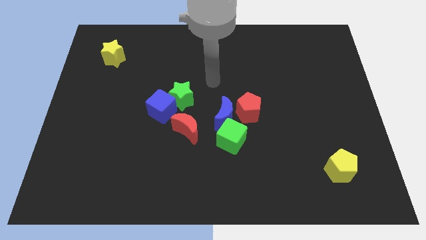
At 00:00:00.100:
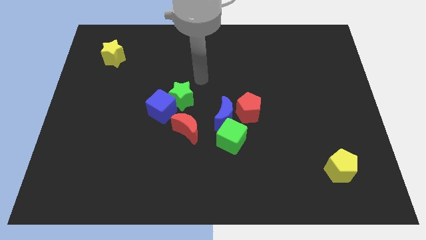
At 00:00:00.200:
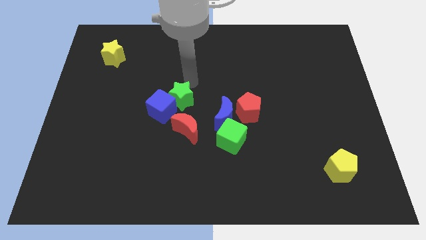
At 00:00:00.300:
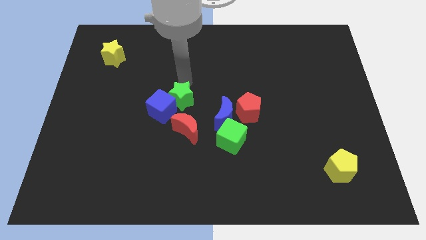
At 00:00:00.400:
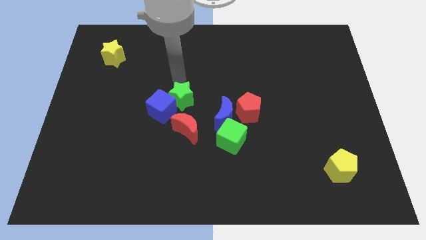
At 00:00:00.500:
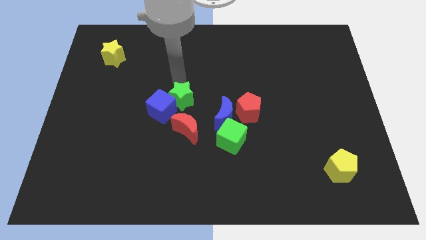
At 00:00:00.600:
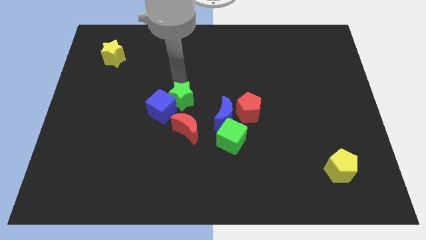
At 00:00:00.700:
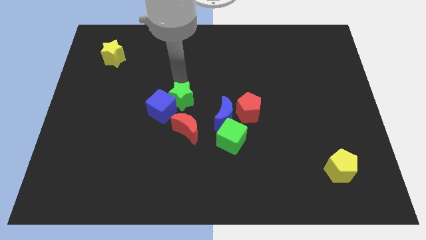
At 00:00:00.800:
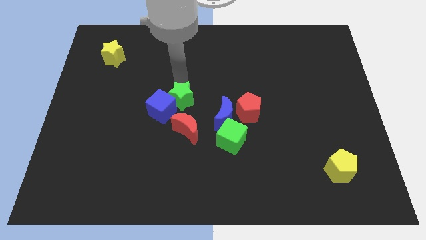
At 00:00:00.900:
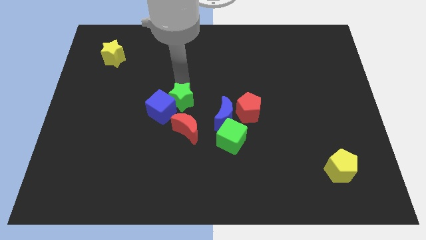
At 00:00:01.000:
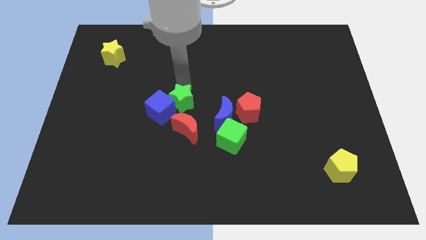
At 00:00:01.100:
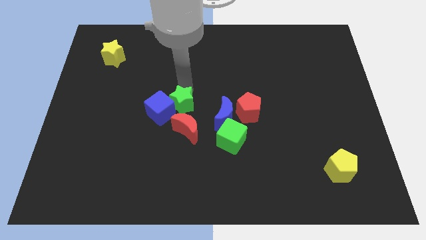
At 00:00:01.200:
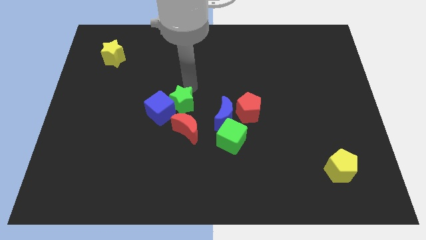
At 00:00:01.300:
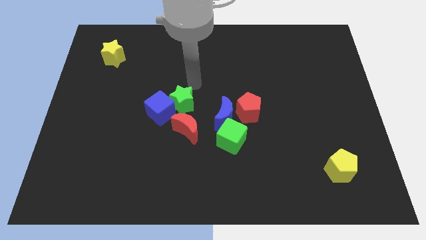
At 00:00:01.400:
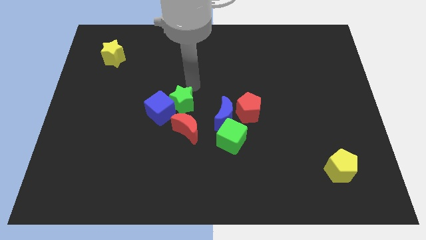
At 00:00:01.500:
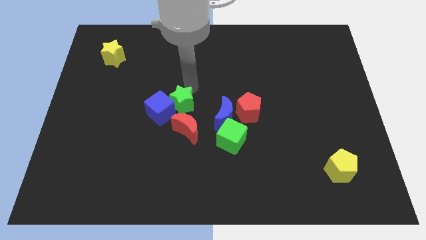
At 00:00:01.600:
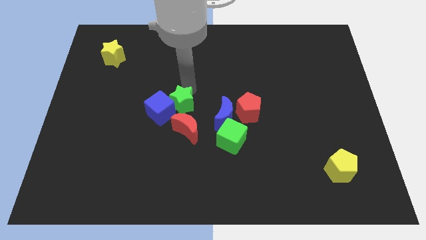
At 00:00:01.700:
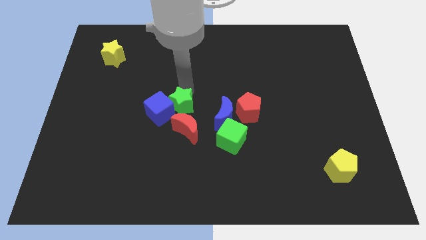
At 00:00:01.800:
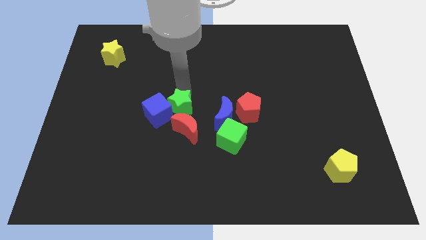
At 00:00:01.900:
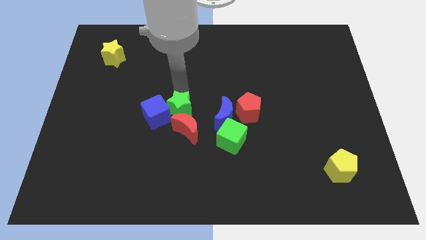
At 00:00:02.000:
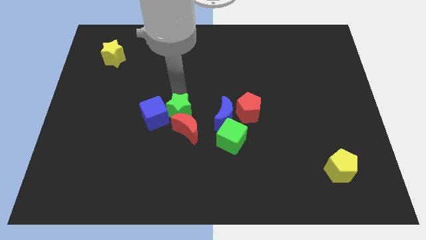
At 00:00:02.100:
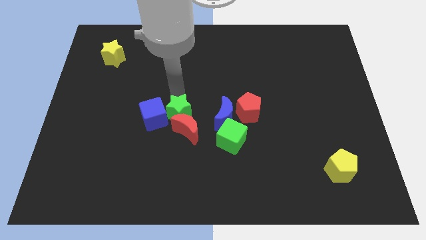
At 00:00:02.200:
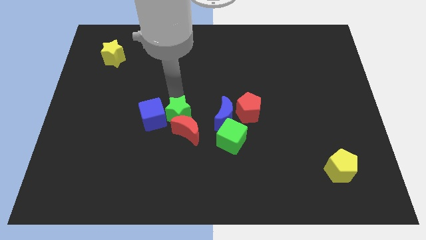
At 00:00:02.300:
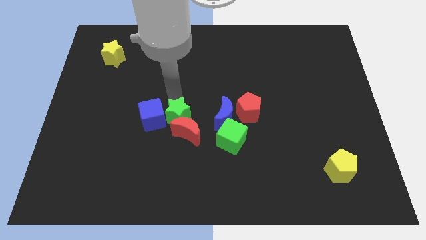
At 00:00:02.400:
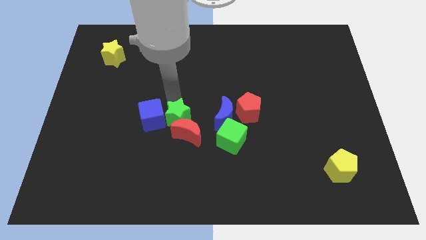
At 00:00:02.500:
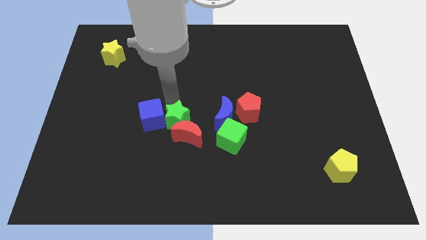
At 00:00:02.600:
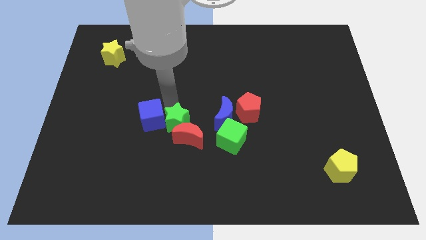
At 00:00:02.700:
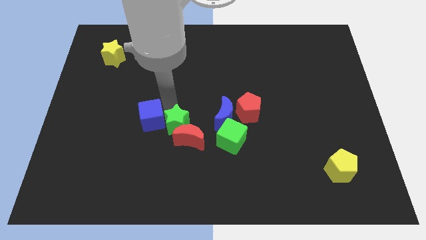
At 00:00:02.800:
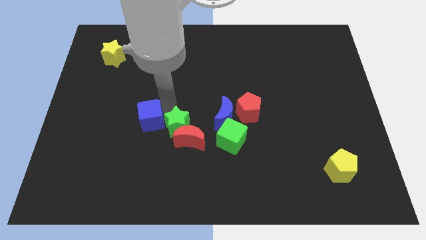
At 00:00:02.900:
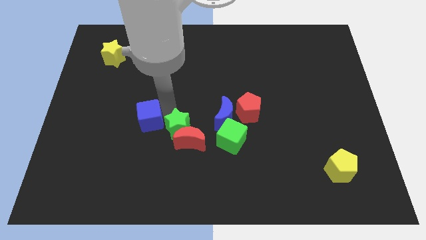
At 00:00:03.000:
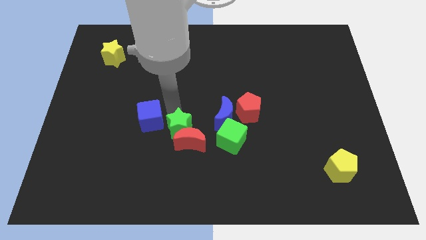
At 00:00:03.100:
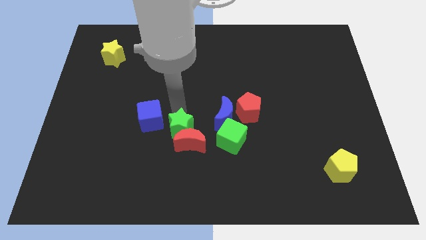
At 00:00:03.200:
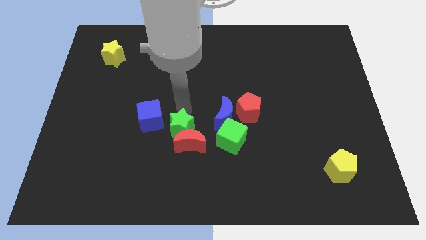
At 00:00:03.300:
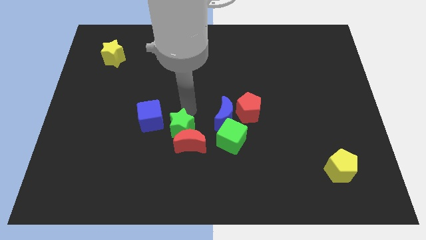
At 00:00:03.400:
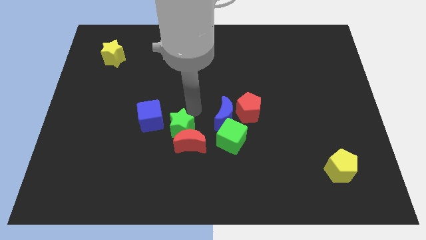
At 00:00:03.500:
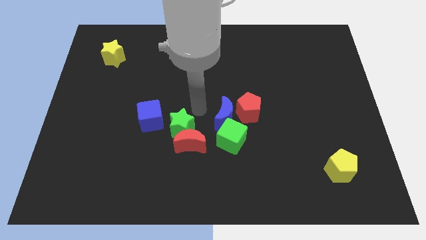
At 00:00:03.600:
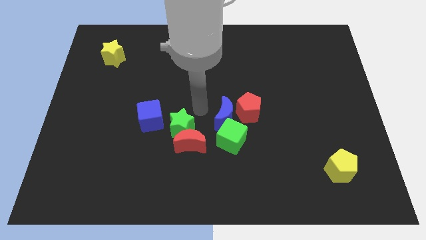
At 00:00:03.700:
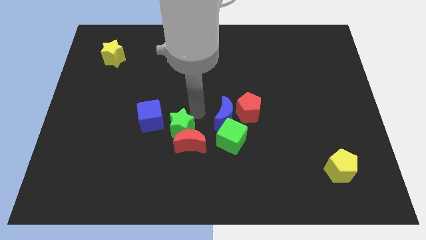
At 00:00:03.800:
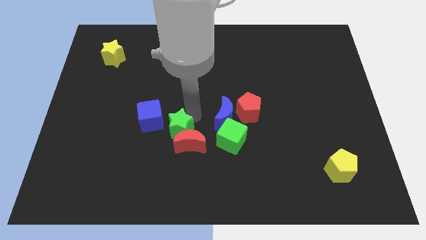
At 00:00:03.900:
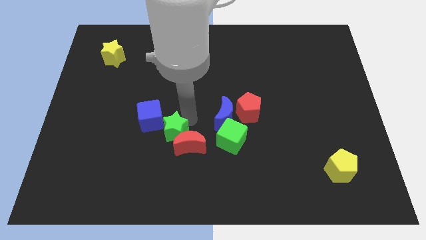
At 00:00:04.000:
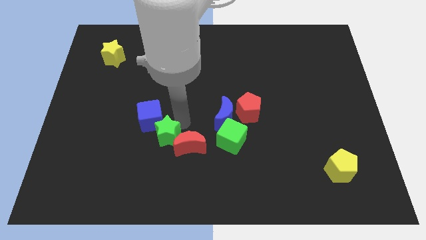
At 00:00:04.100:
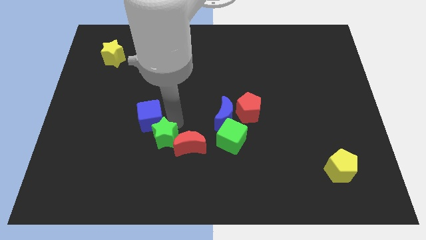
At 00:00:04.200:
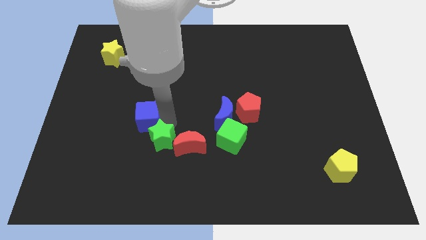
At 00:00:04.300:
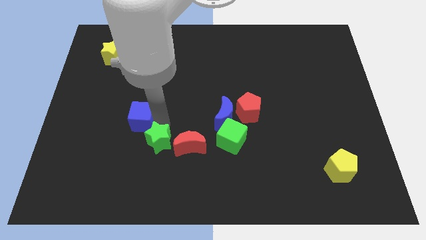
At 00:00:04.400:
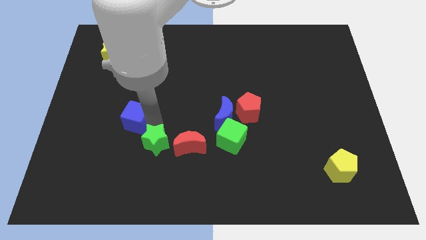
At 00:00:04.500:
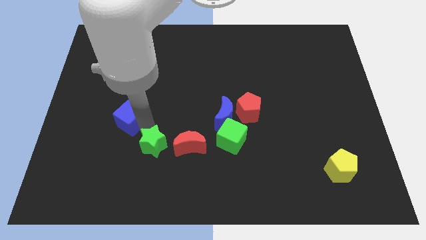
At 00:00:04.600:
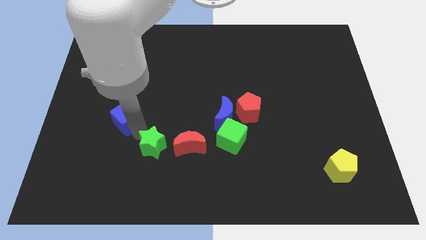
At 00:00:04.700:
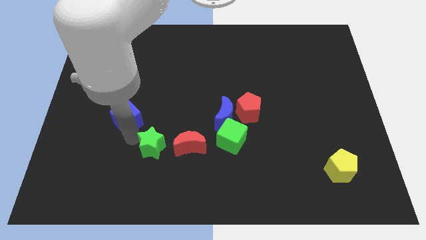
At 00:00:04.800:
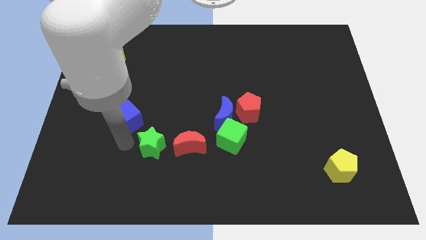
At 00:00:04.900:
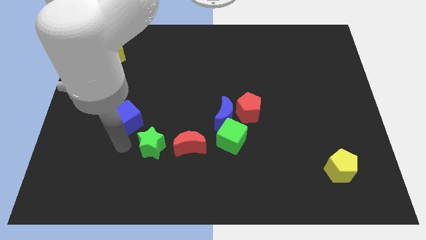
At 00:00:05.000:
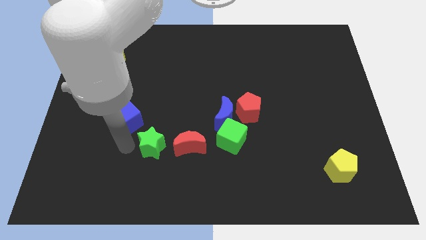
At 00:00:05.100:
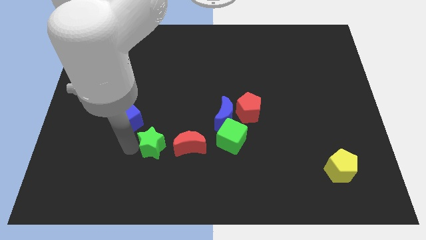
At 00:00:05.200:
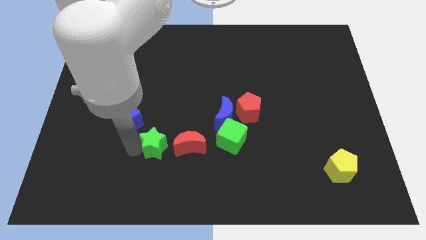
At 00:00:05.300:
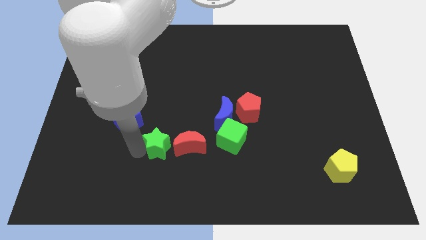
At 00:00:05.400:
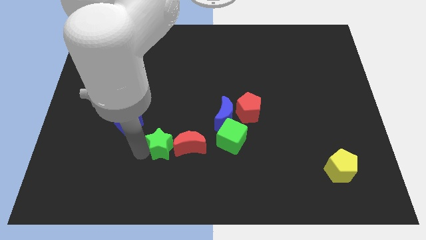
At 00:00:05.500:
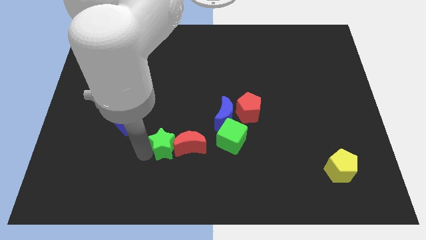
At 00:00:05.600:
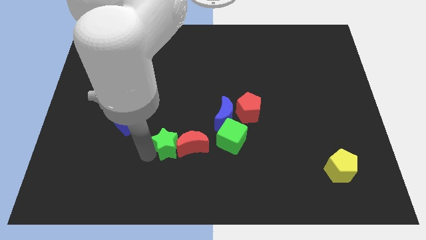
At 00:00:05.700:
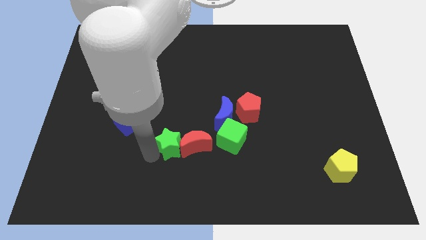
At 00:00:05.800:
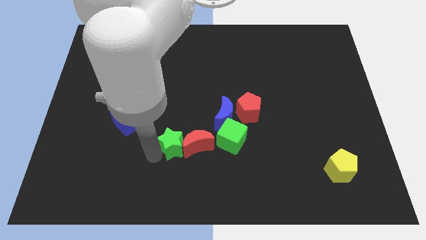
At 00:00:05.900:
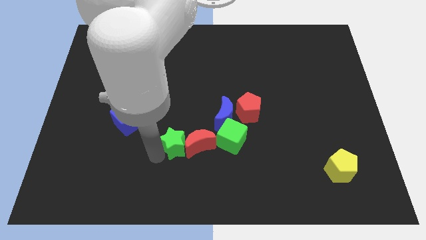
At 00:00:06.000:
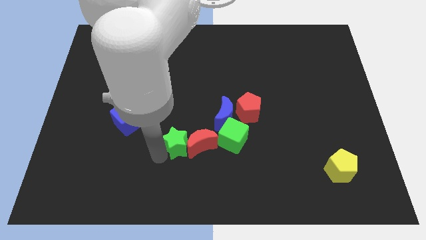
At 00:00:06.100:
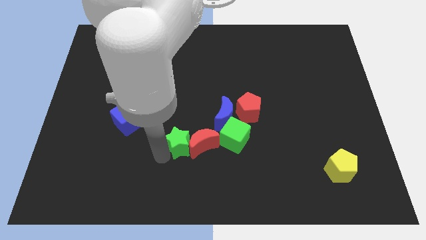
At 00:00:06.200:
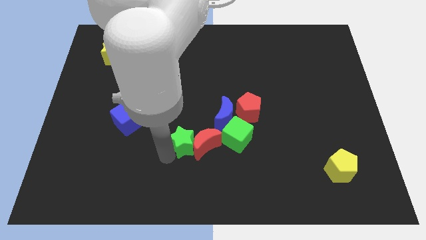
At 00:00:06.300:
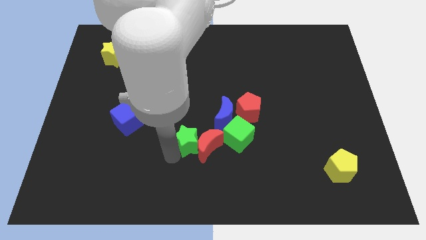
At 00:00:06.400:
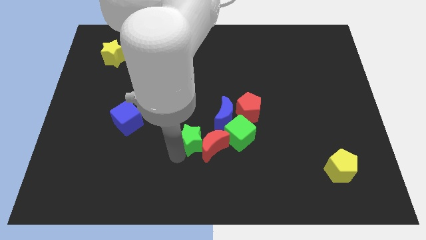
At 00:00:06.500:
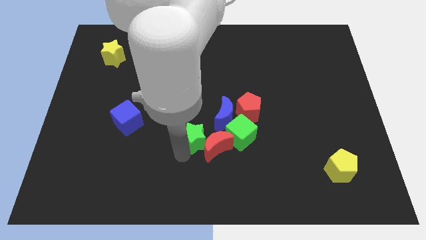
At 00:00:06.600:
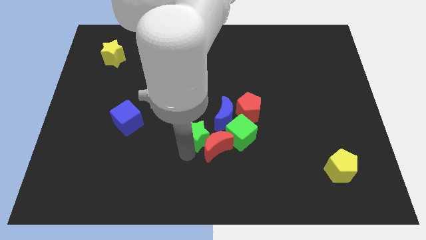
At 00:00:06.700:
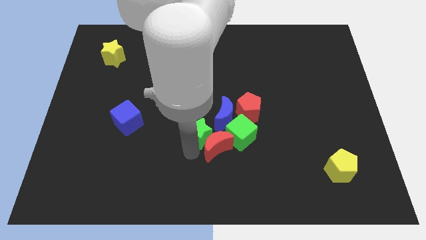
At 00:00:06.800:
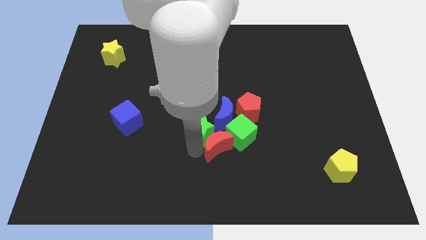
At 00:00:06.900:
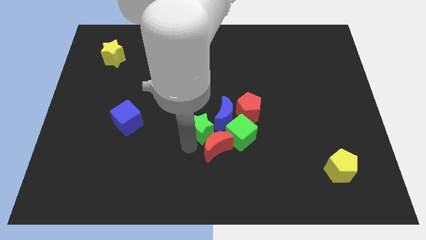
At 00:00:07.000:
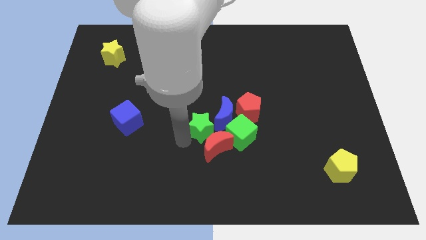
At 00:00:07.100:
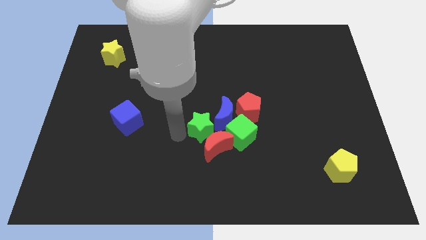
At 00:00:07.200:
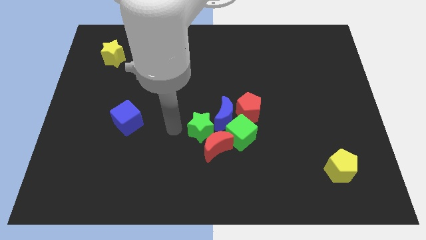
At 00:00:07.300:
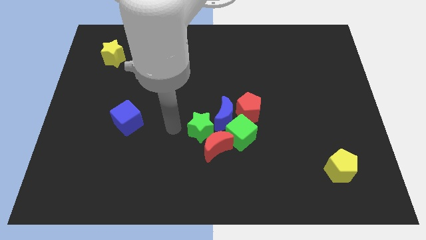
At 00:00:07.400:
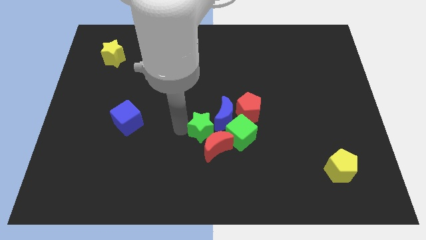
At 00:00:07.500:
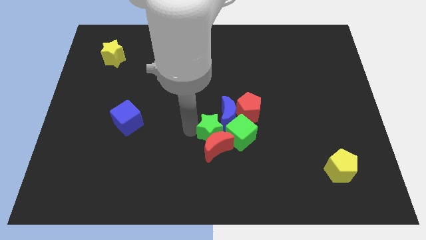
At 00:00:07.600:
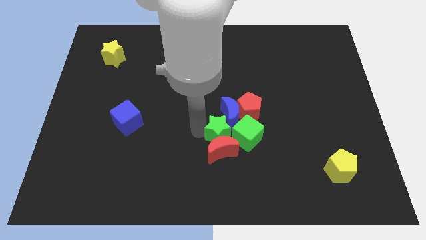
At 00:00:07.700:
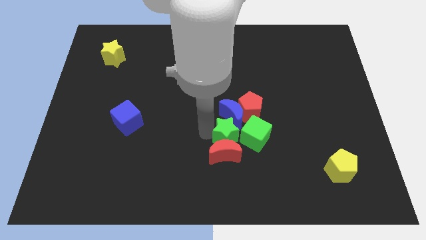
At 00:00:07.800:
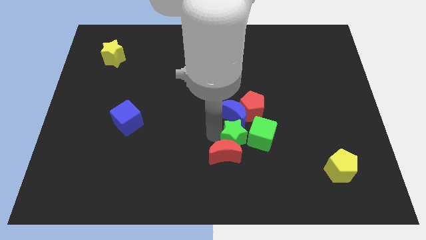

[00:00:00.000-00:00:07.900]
slide the green star to the green cube
